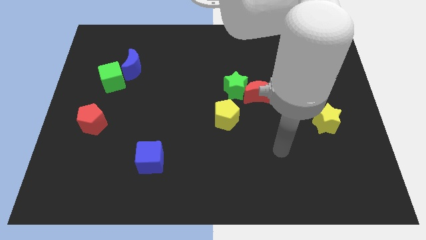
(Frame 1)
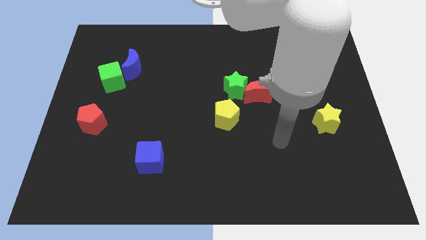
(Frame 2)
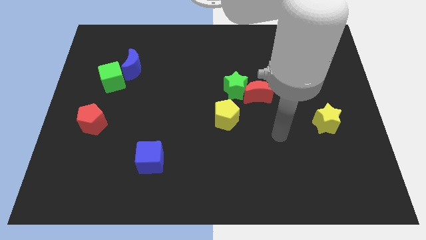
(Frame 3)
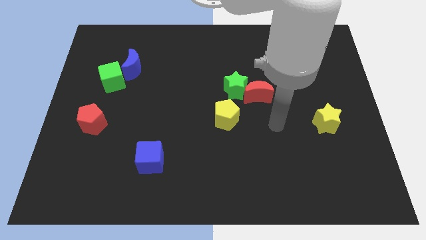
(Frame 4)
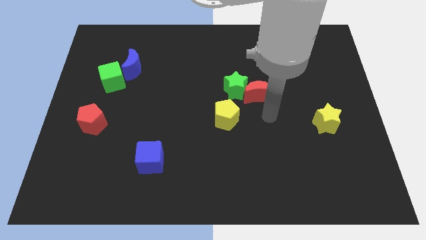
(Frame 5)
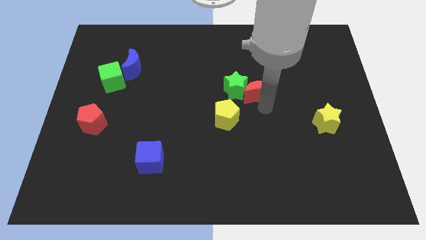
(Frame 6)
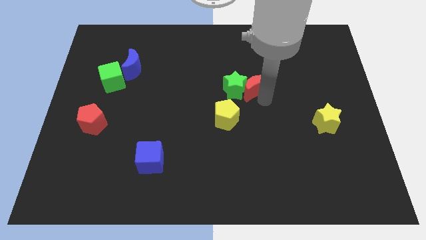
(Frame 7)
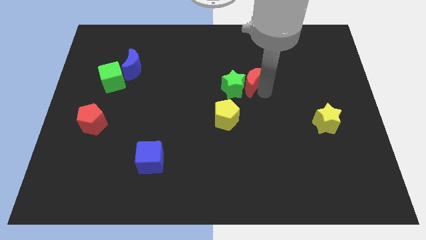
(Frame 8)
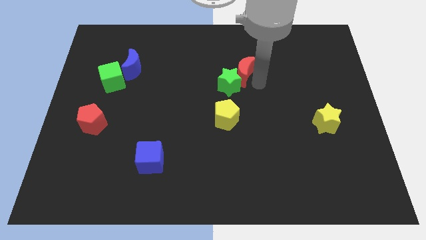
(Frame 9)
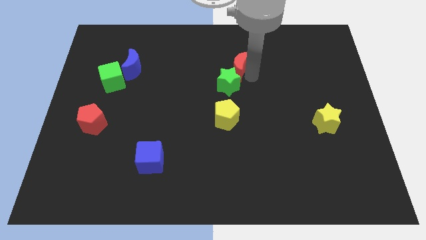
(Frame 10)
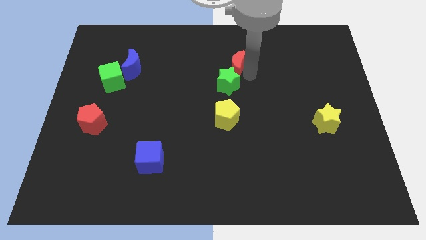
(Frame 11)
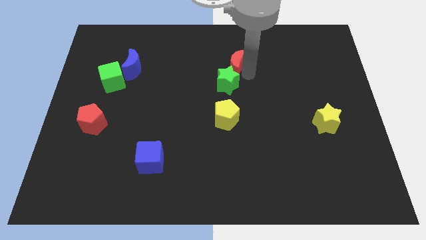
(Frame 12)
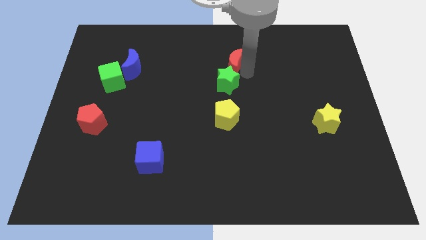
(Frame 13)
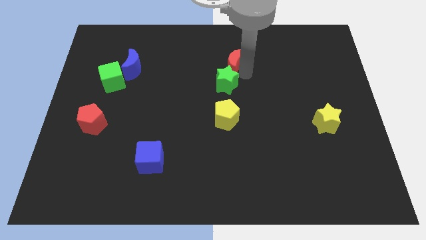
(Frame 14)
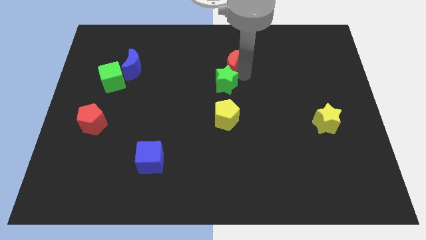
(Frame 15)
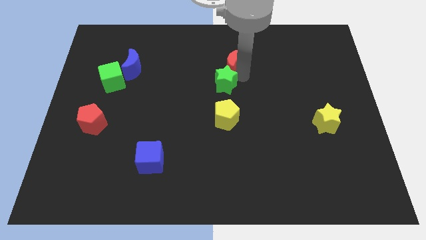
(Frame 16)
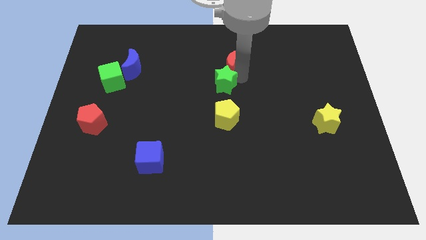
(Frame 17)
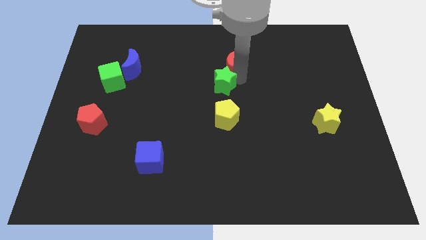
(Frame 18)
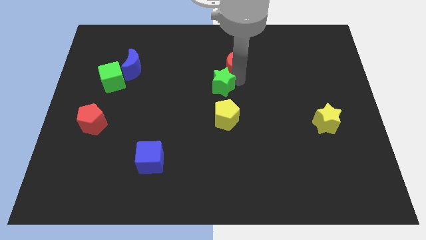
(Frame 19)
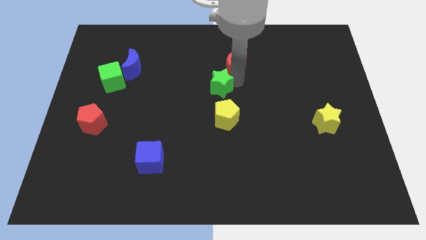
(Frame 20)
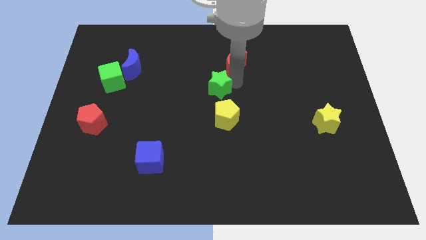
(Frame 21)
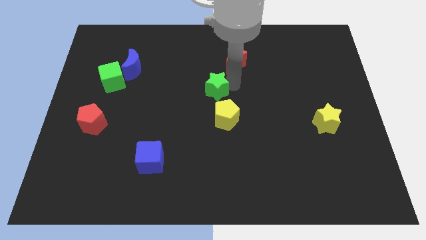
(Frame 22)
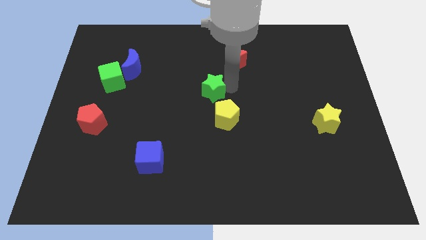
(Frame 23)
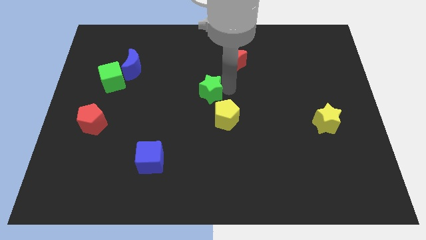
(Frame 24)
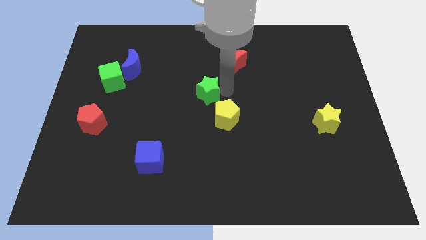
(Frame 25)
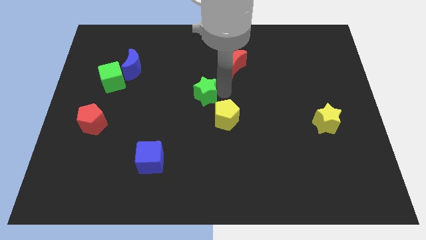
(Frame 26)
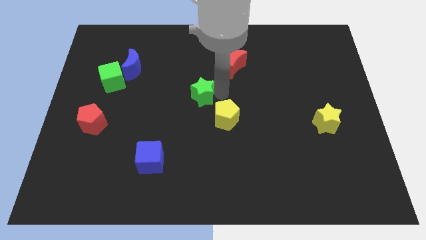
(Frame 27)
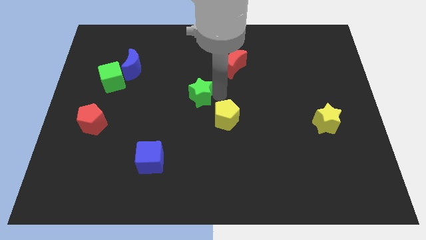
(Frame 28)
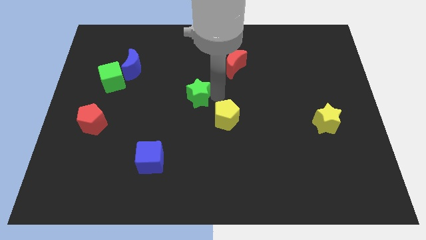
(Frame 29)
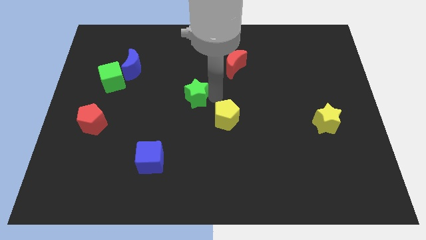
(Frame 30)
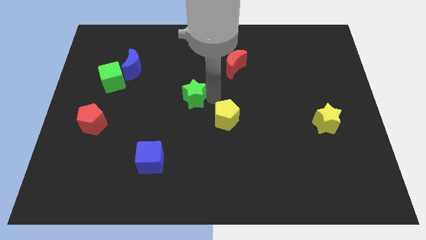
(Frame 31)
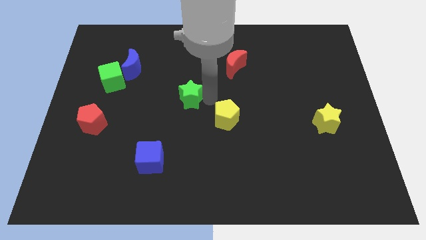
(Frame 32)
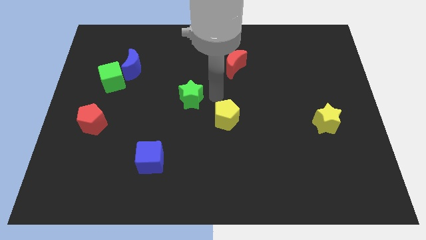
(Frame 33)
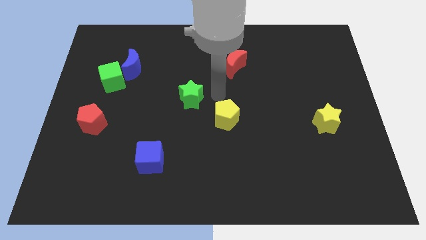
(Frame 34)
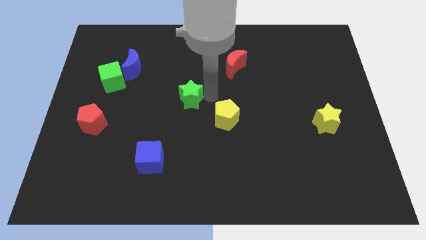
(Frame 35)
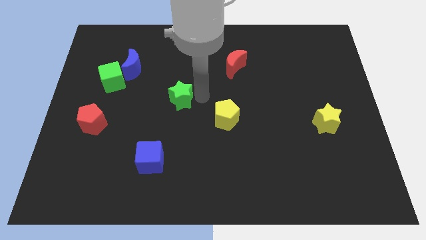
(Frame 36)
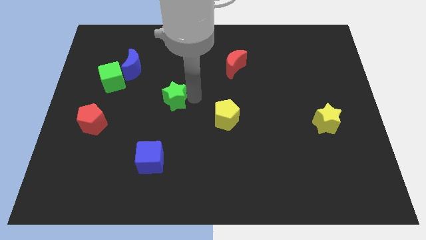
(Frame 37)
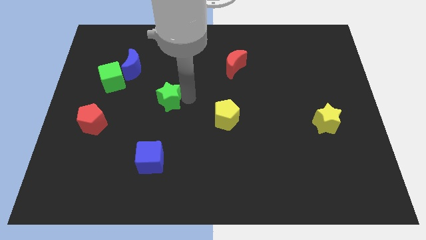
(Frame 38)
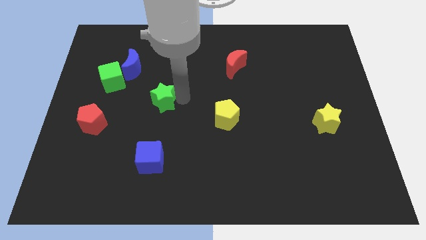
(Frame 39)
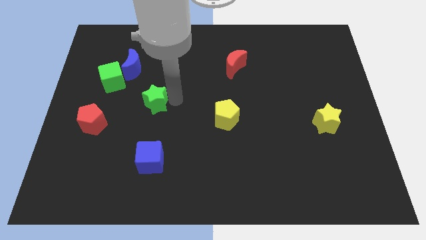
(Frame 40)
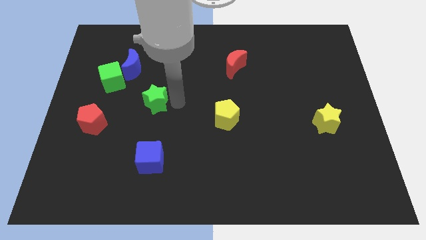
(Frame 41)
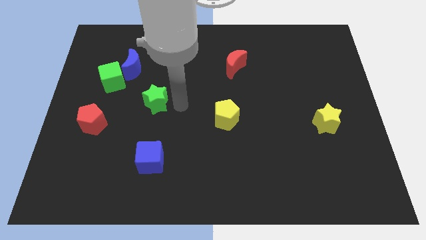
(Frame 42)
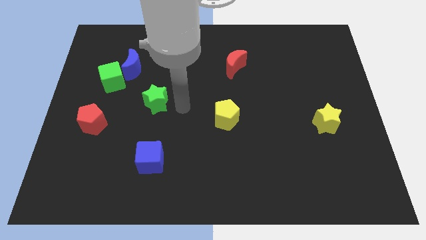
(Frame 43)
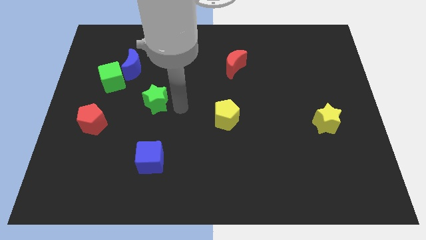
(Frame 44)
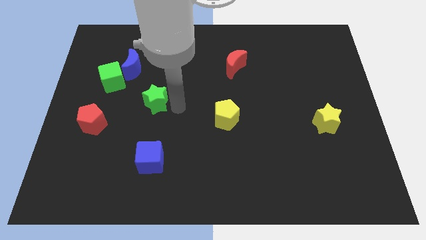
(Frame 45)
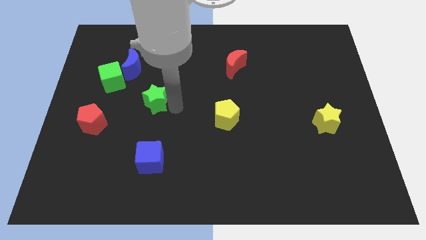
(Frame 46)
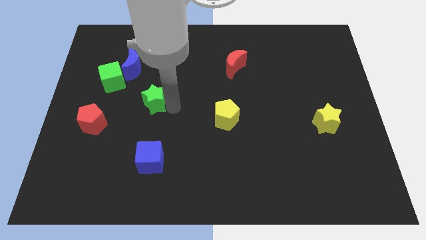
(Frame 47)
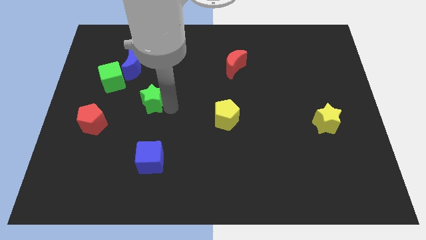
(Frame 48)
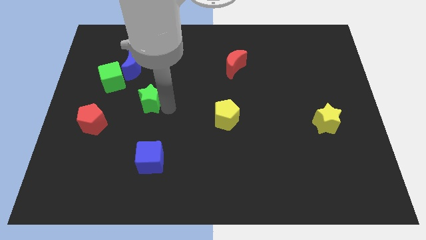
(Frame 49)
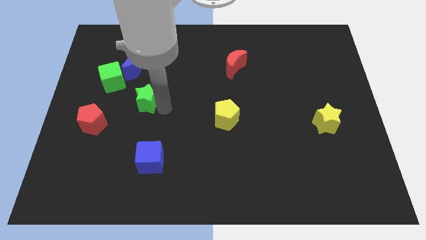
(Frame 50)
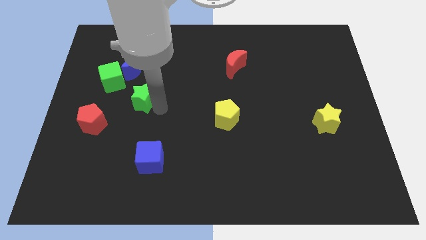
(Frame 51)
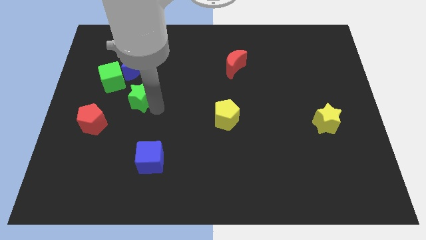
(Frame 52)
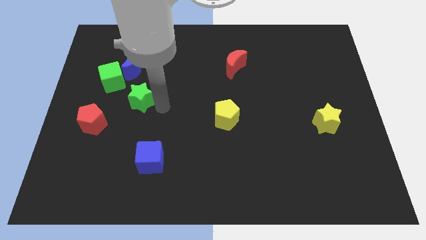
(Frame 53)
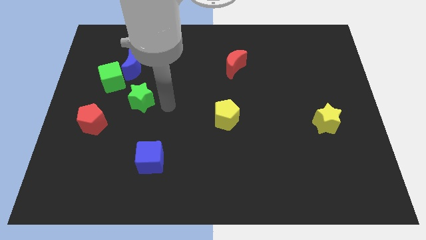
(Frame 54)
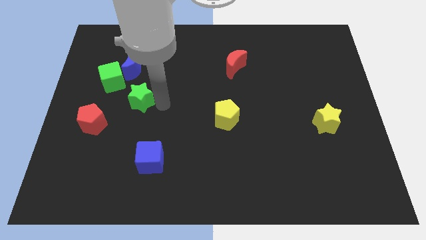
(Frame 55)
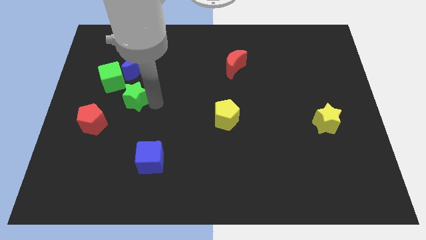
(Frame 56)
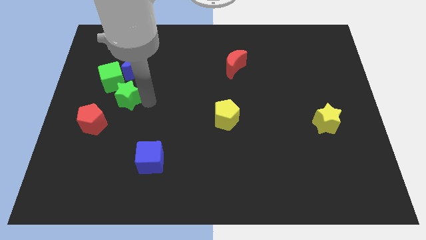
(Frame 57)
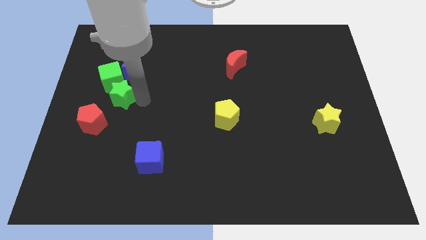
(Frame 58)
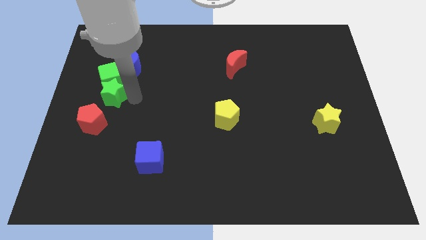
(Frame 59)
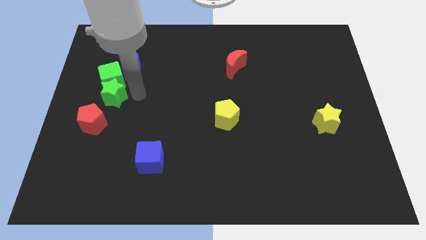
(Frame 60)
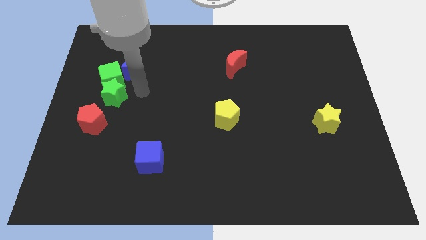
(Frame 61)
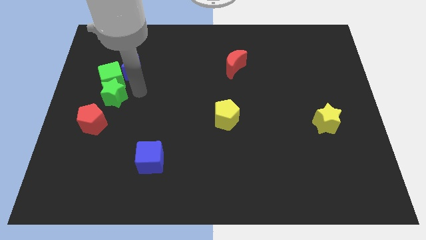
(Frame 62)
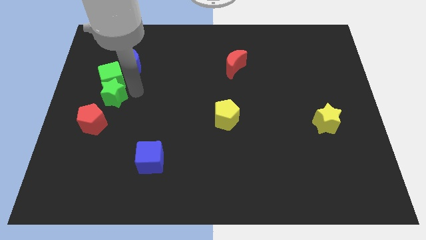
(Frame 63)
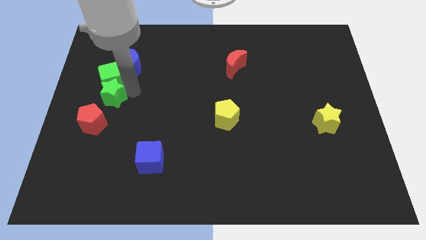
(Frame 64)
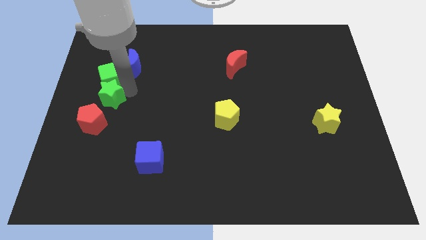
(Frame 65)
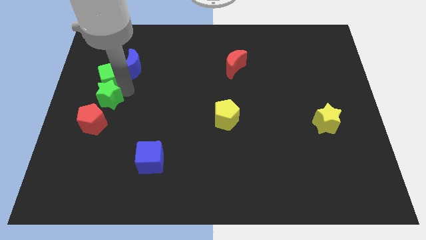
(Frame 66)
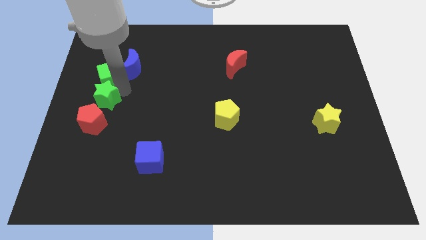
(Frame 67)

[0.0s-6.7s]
push the green star to the left side
